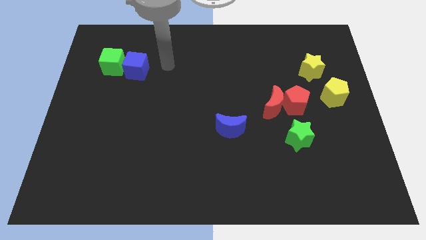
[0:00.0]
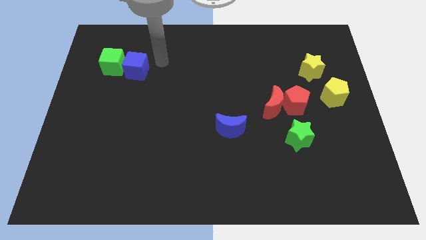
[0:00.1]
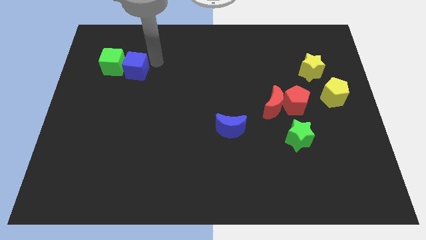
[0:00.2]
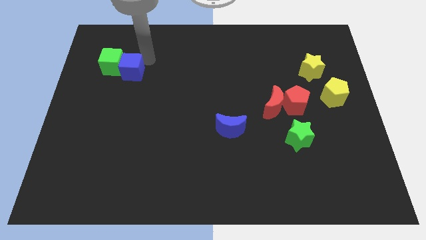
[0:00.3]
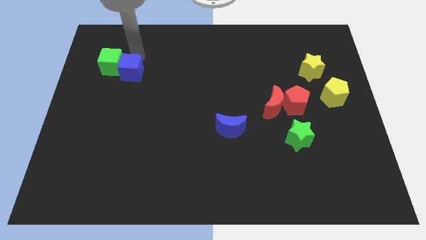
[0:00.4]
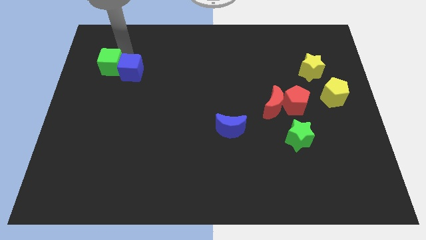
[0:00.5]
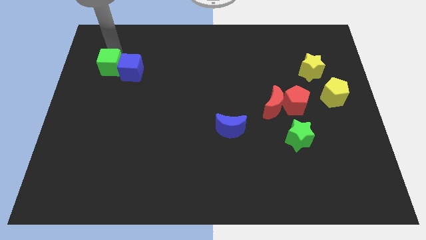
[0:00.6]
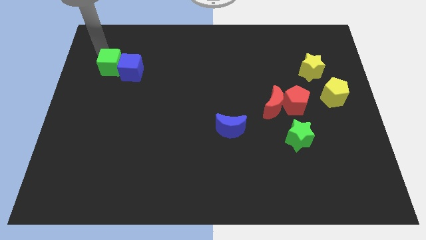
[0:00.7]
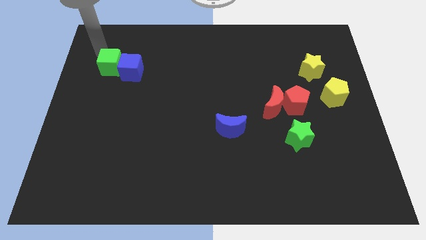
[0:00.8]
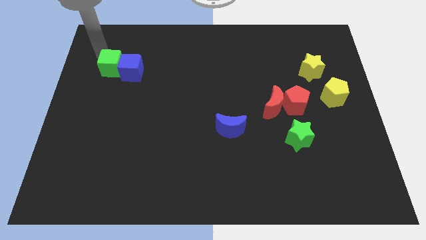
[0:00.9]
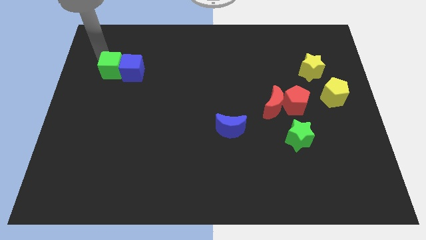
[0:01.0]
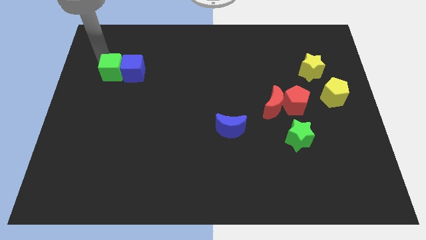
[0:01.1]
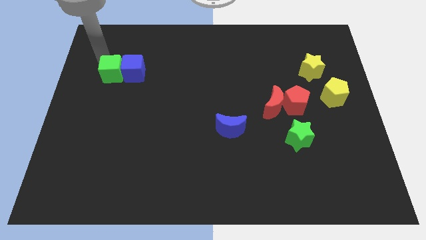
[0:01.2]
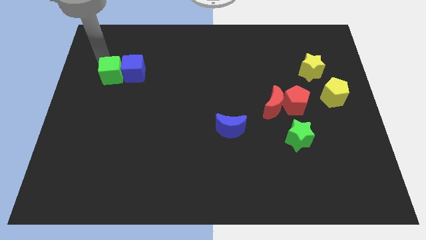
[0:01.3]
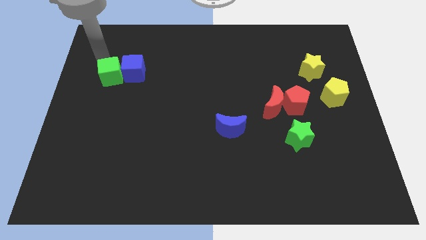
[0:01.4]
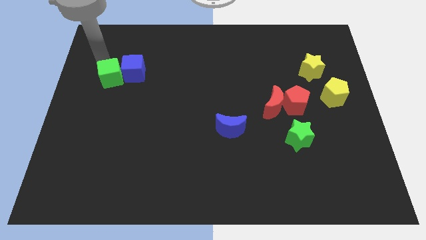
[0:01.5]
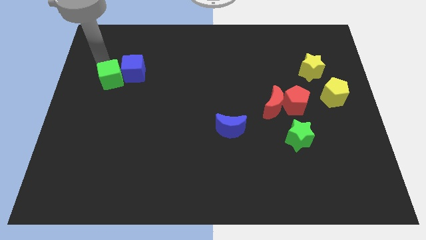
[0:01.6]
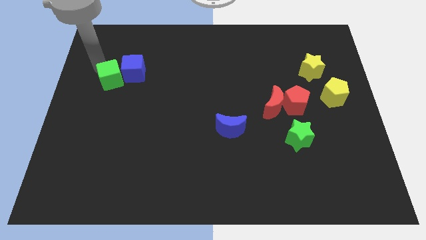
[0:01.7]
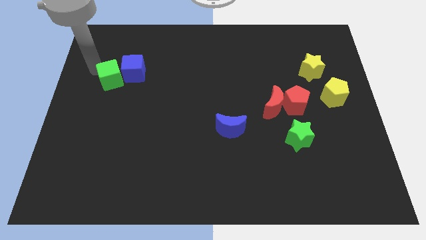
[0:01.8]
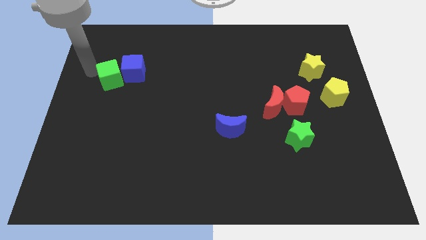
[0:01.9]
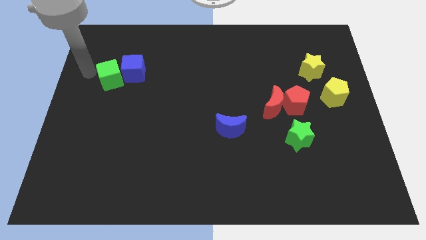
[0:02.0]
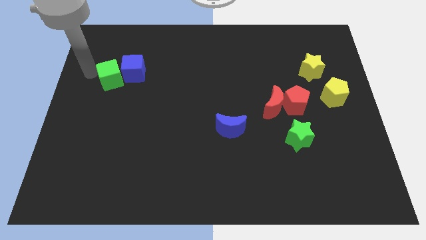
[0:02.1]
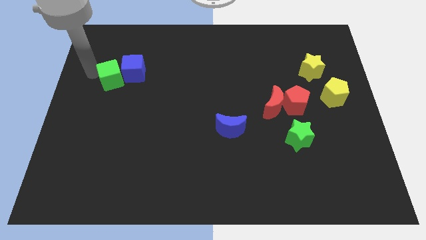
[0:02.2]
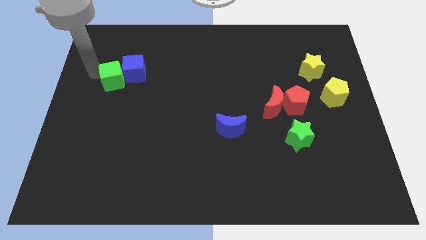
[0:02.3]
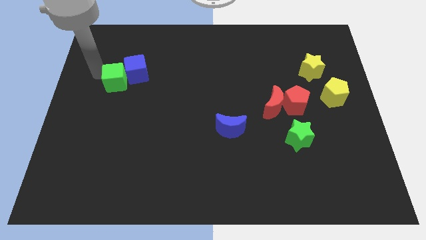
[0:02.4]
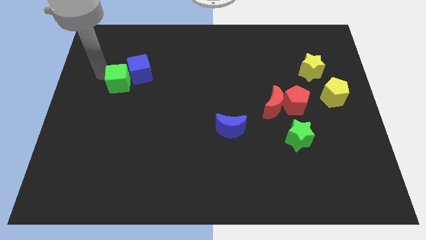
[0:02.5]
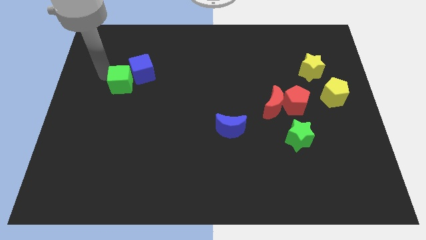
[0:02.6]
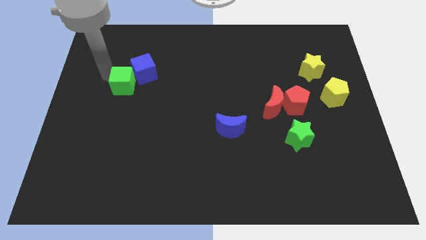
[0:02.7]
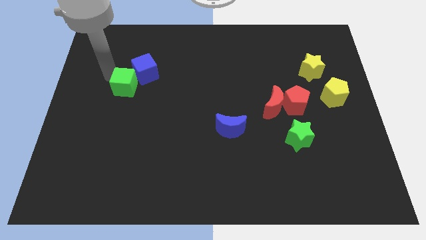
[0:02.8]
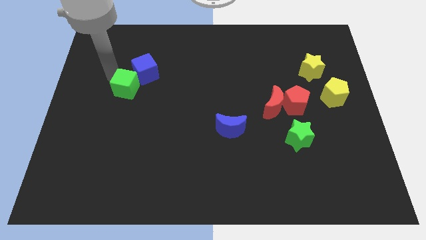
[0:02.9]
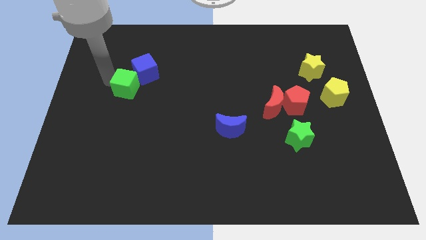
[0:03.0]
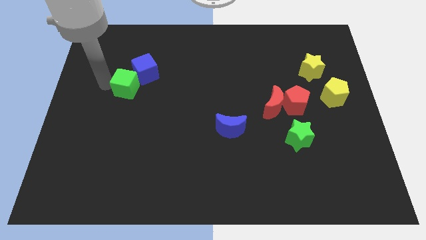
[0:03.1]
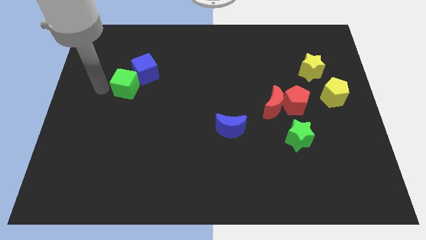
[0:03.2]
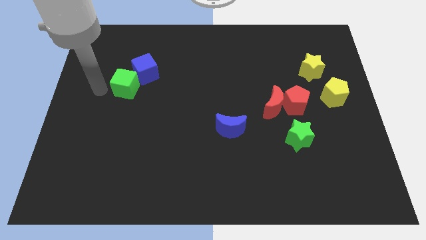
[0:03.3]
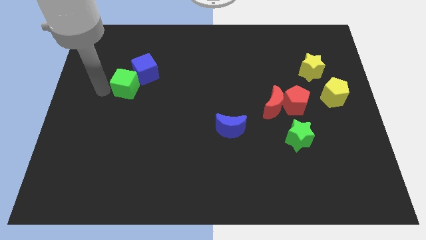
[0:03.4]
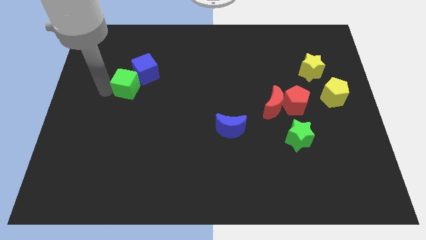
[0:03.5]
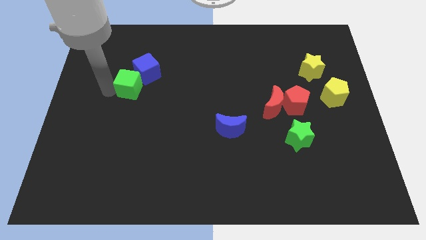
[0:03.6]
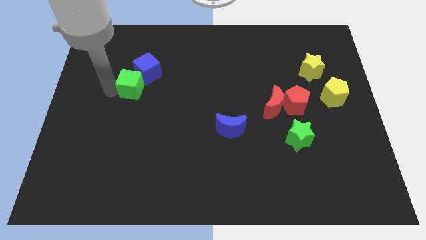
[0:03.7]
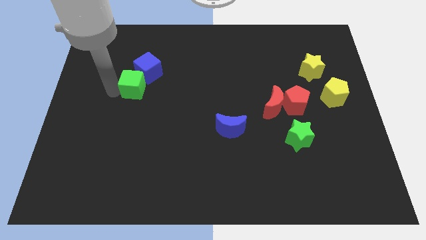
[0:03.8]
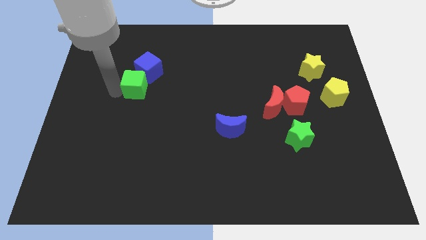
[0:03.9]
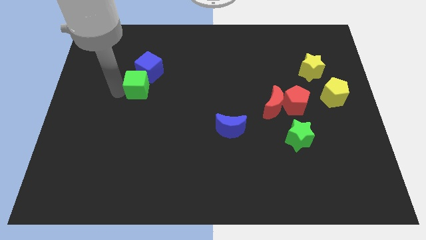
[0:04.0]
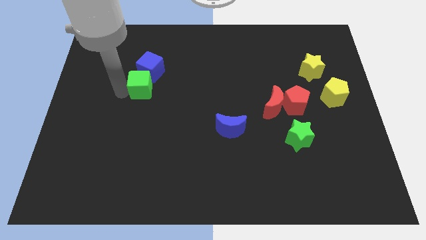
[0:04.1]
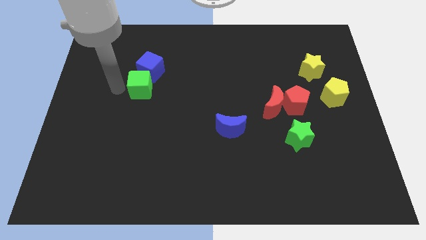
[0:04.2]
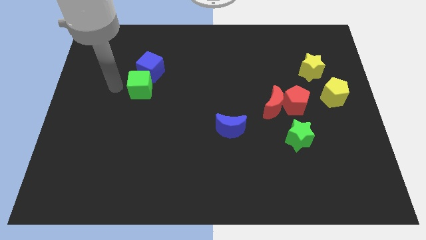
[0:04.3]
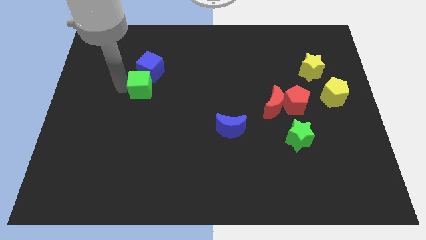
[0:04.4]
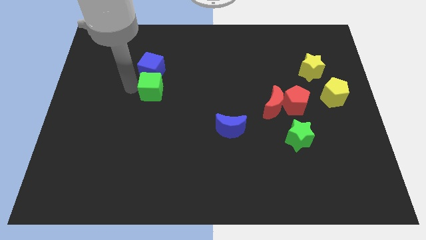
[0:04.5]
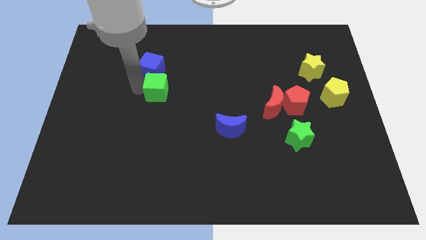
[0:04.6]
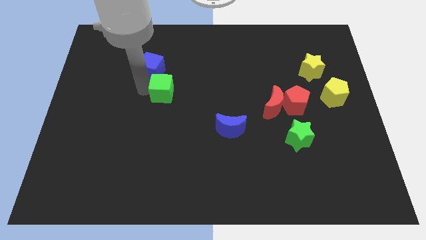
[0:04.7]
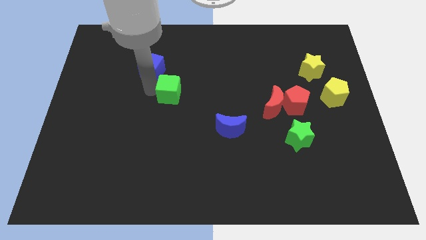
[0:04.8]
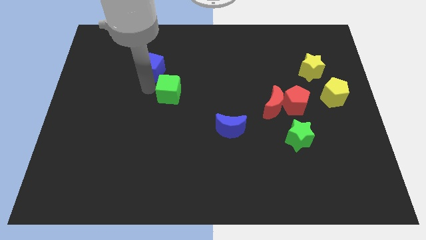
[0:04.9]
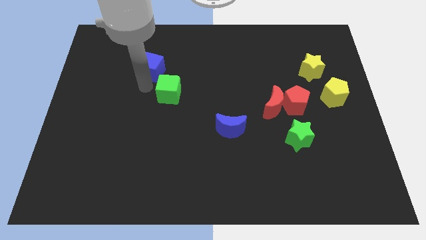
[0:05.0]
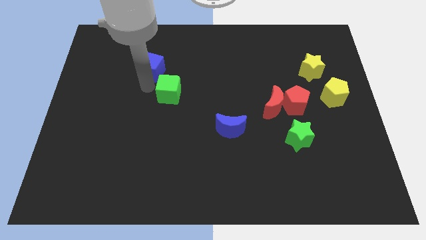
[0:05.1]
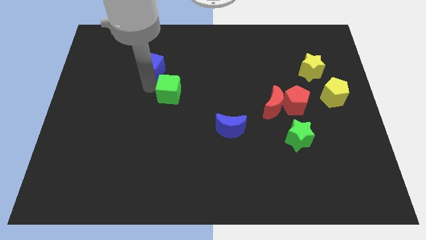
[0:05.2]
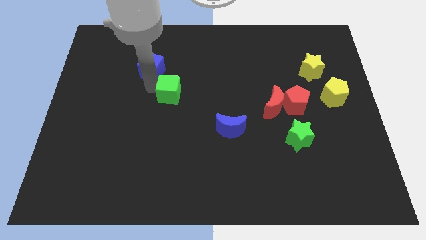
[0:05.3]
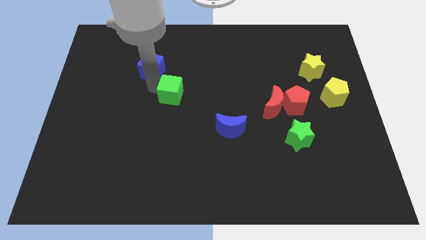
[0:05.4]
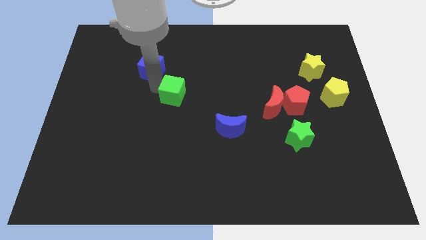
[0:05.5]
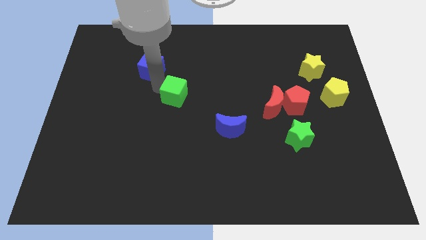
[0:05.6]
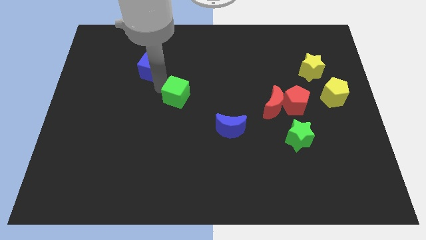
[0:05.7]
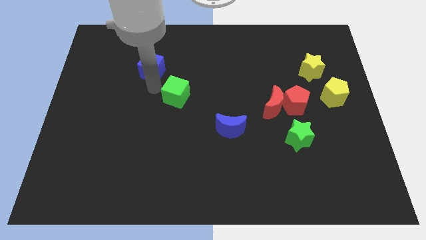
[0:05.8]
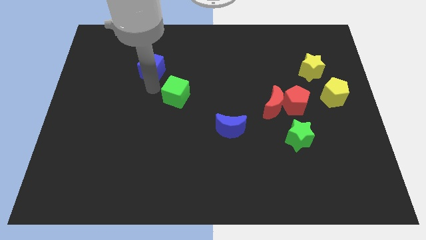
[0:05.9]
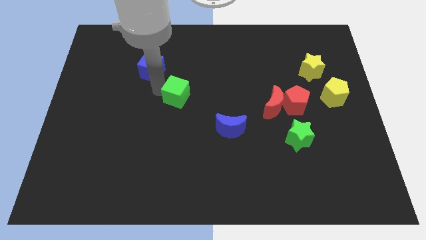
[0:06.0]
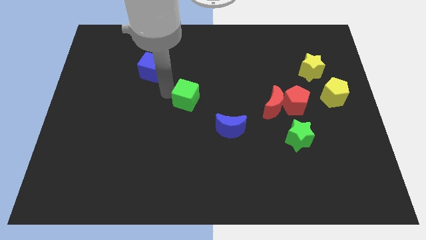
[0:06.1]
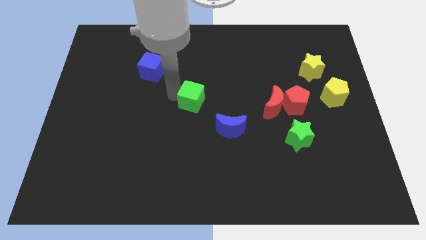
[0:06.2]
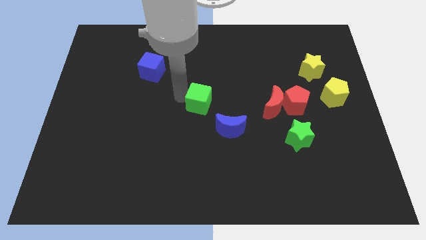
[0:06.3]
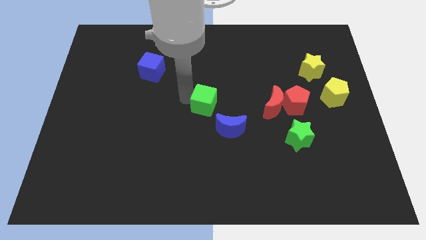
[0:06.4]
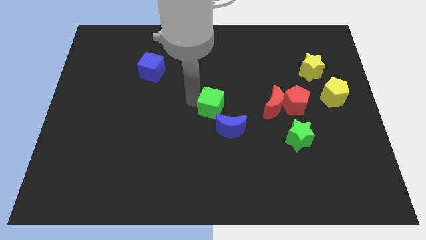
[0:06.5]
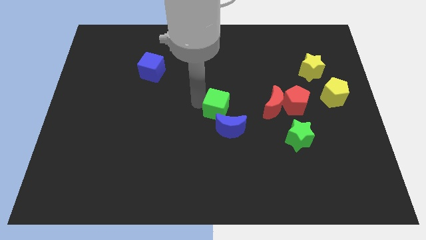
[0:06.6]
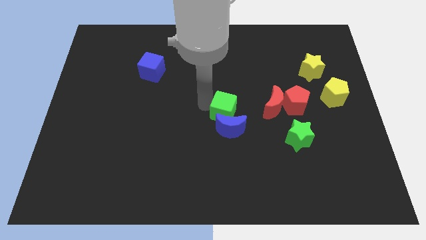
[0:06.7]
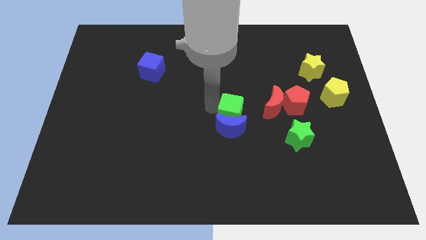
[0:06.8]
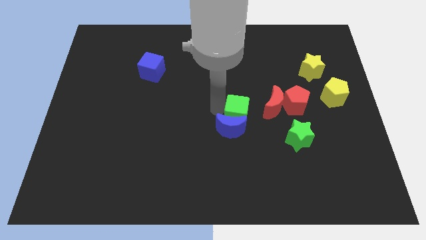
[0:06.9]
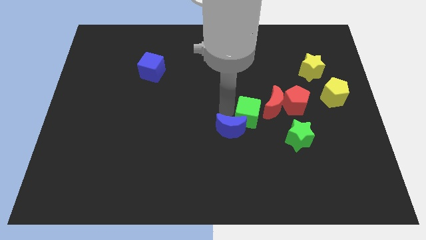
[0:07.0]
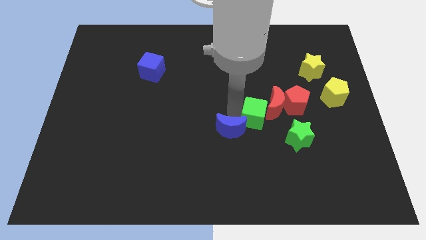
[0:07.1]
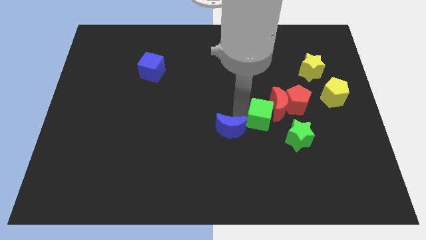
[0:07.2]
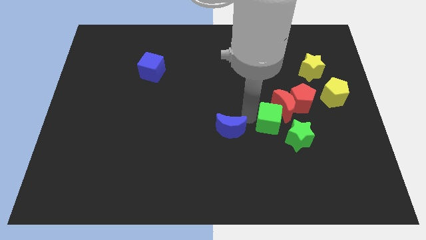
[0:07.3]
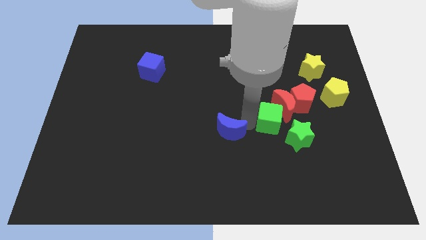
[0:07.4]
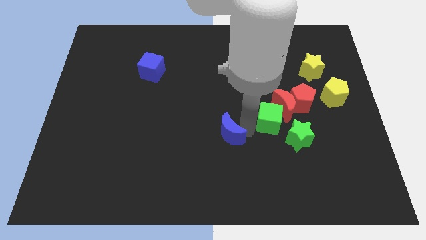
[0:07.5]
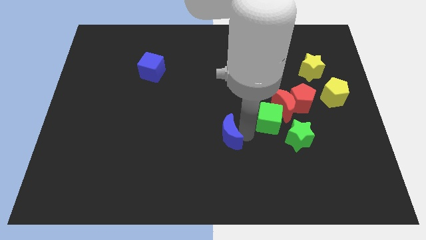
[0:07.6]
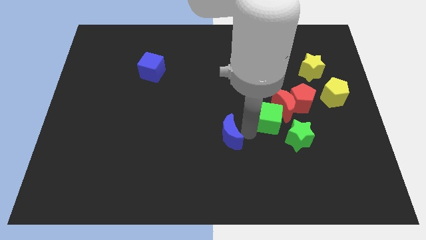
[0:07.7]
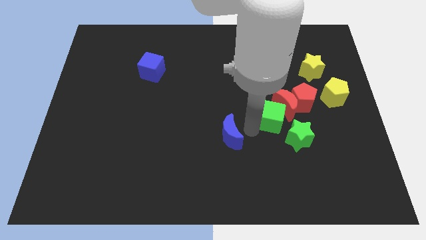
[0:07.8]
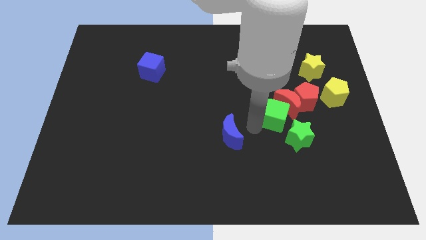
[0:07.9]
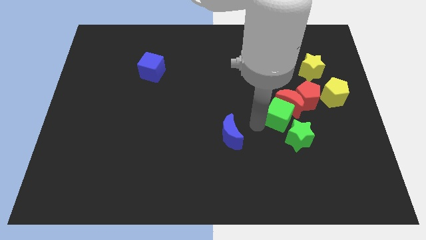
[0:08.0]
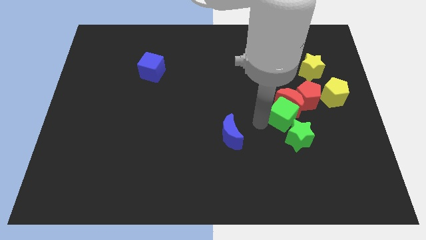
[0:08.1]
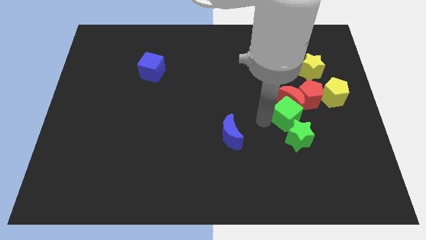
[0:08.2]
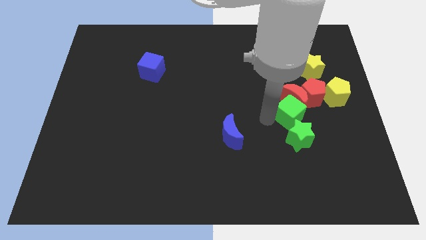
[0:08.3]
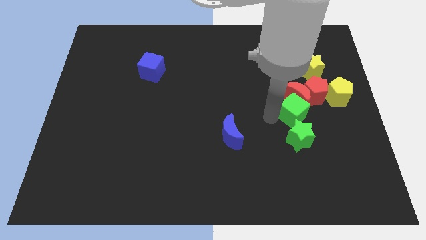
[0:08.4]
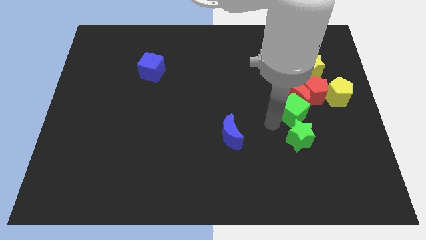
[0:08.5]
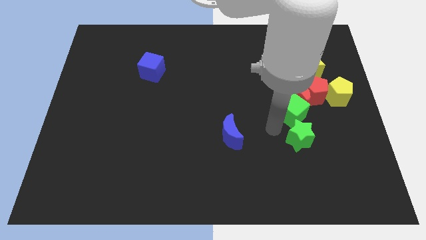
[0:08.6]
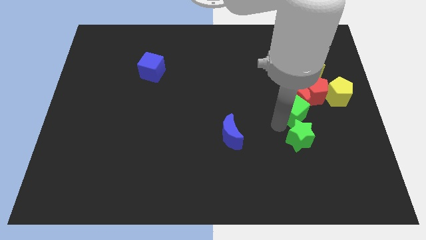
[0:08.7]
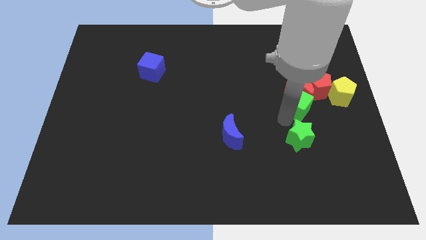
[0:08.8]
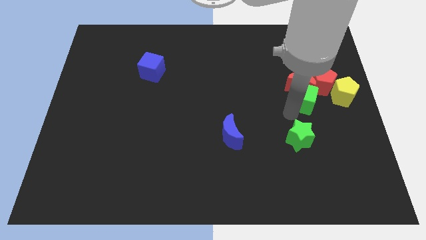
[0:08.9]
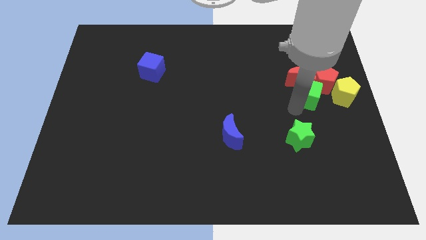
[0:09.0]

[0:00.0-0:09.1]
push the green cube to the red pentagon
